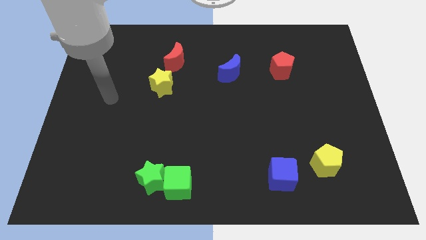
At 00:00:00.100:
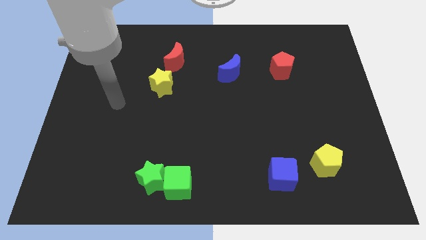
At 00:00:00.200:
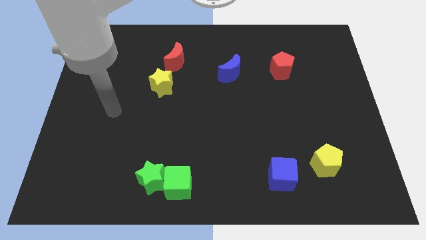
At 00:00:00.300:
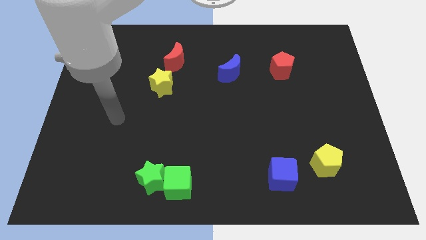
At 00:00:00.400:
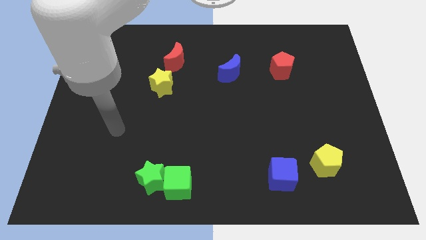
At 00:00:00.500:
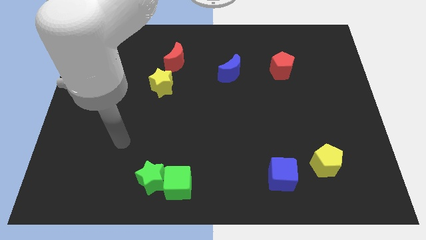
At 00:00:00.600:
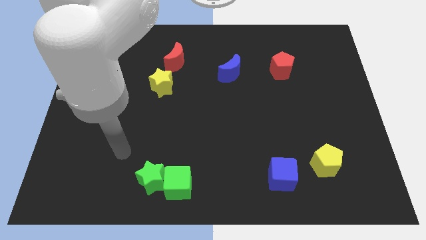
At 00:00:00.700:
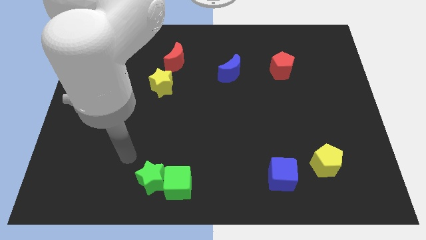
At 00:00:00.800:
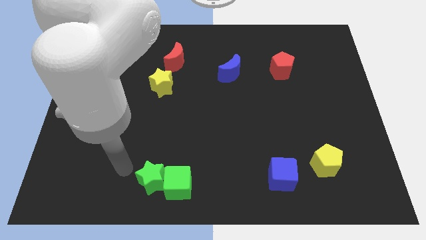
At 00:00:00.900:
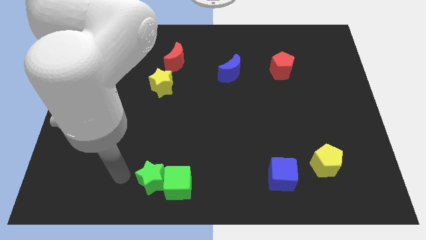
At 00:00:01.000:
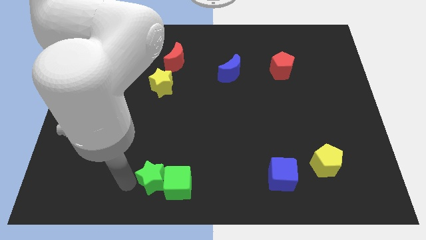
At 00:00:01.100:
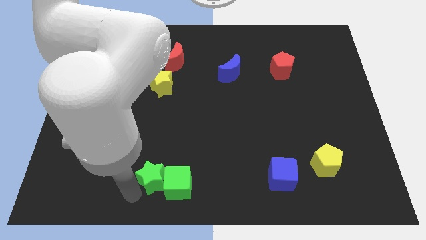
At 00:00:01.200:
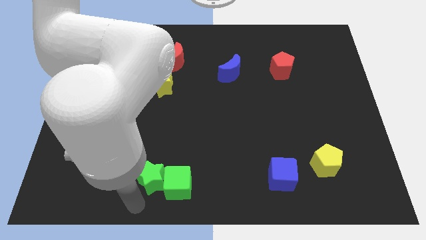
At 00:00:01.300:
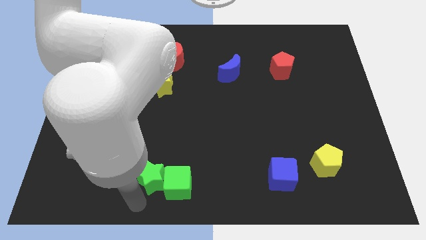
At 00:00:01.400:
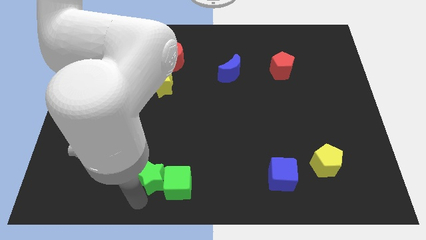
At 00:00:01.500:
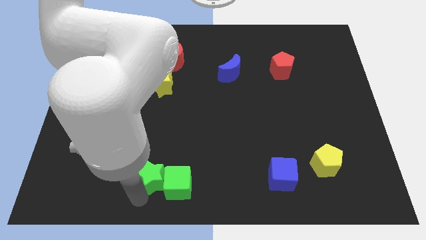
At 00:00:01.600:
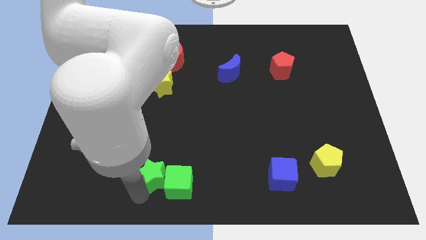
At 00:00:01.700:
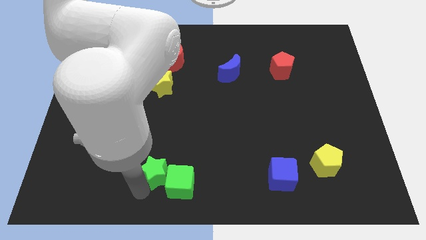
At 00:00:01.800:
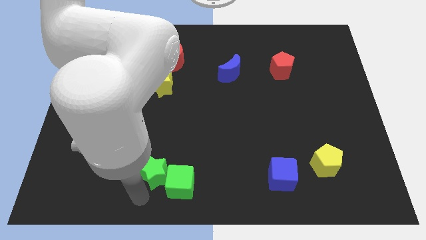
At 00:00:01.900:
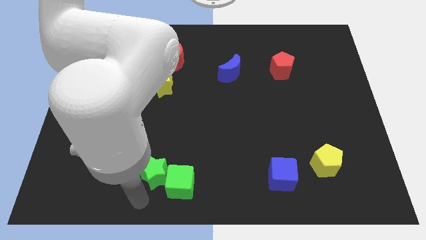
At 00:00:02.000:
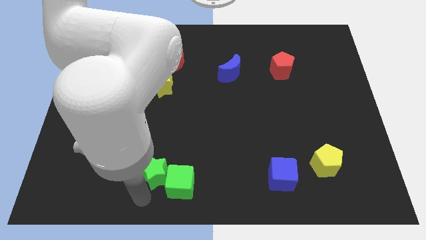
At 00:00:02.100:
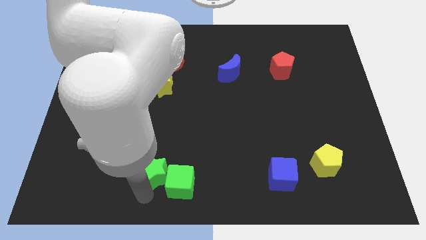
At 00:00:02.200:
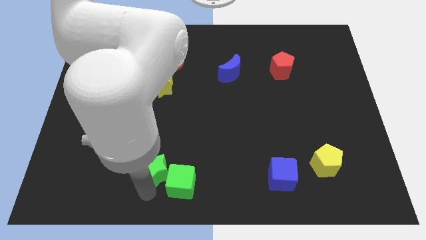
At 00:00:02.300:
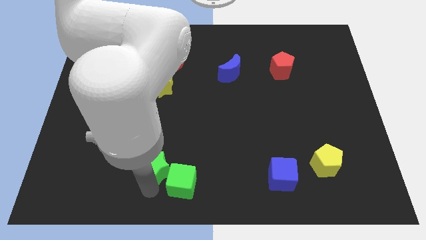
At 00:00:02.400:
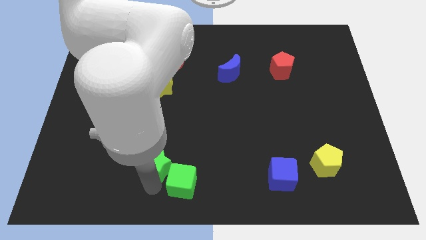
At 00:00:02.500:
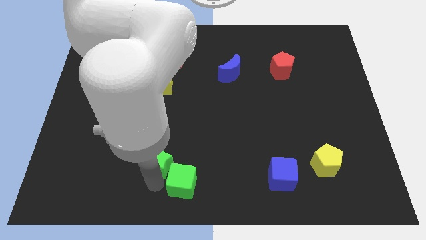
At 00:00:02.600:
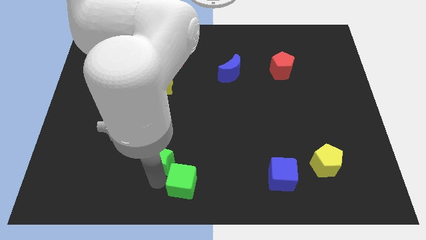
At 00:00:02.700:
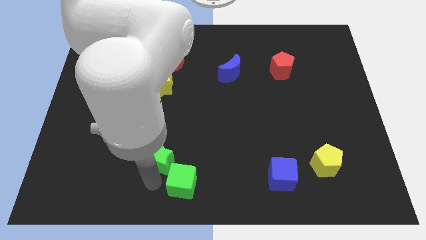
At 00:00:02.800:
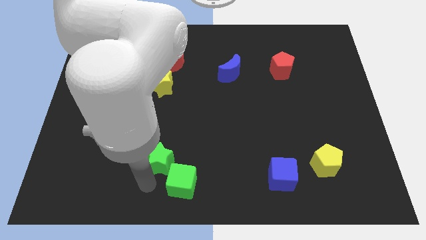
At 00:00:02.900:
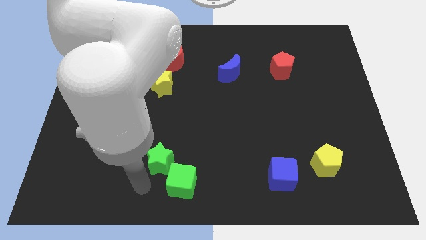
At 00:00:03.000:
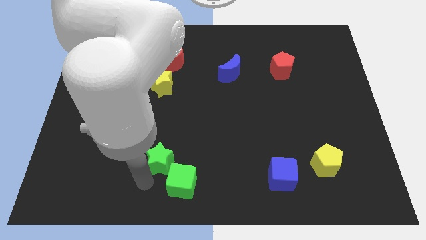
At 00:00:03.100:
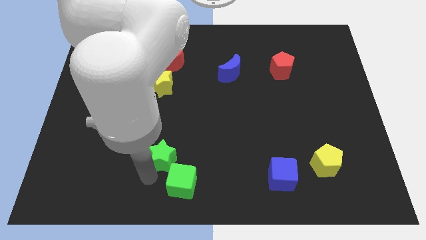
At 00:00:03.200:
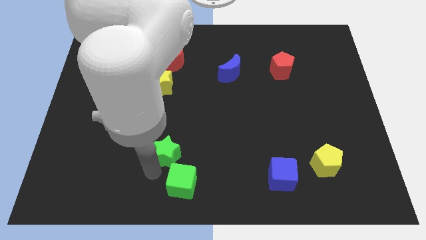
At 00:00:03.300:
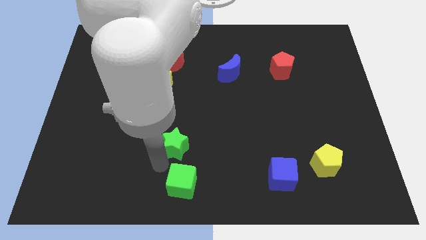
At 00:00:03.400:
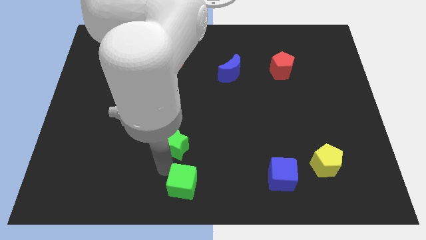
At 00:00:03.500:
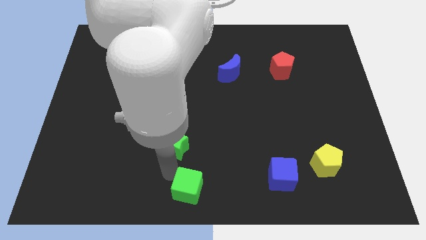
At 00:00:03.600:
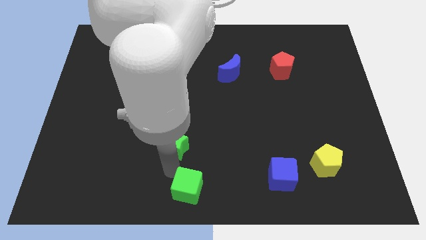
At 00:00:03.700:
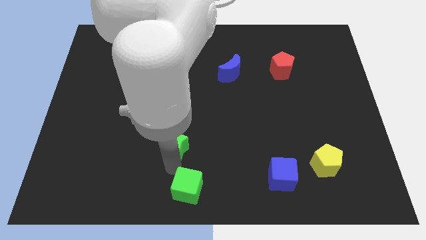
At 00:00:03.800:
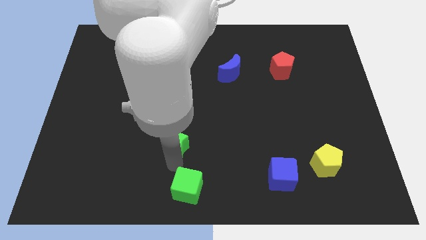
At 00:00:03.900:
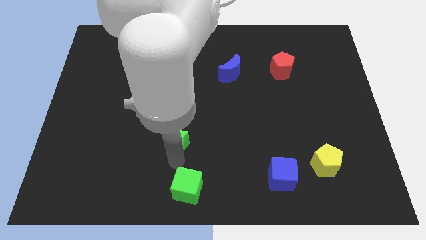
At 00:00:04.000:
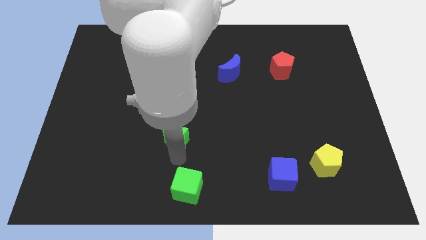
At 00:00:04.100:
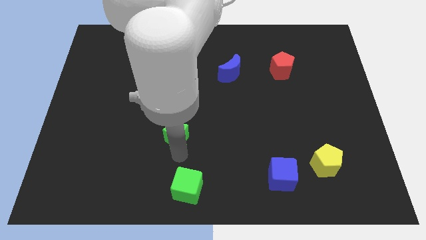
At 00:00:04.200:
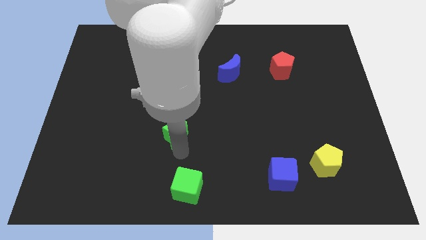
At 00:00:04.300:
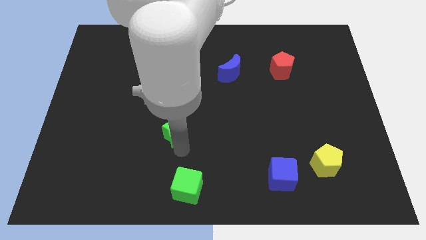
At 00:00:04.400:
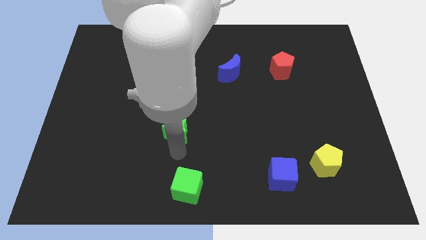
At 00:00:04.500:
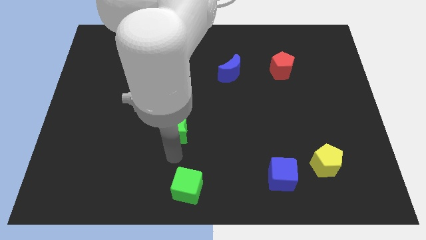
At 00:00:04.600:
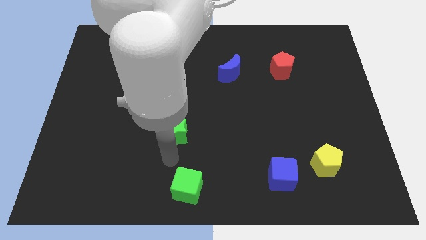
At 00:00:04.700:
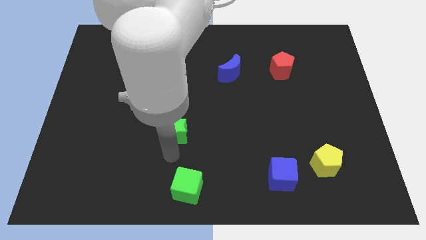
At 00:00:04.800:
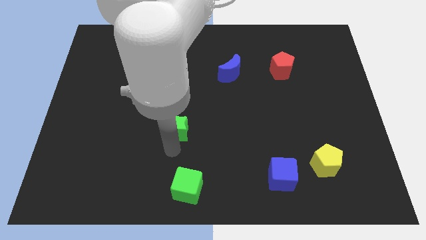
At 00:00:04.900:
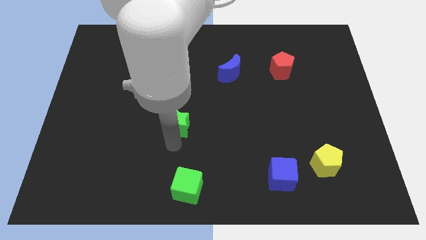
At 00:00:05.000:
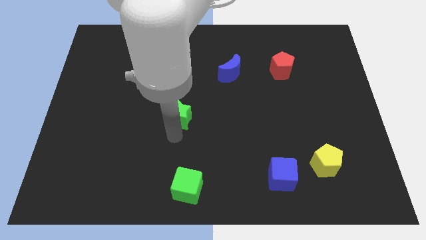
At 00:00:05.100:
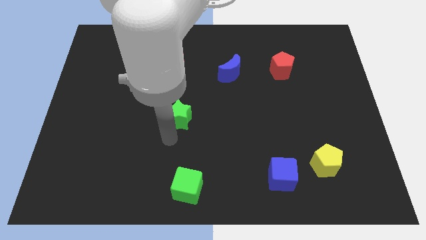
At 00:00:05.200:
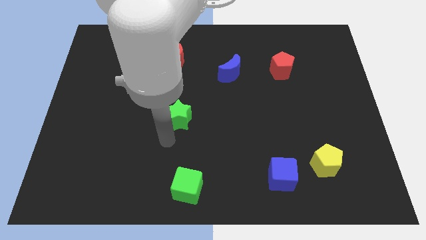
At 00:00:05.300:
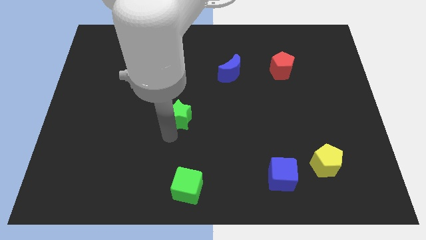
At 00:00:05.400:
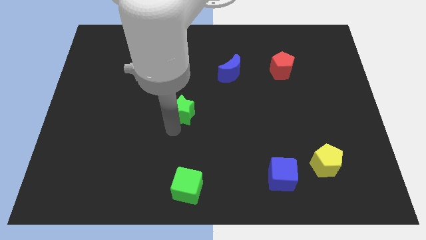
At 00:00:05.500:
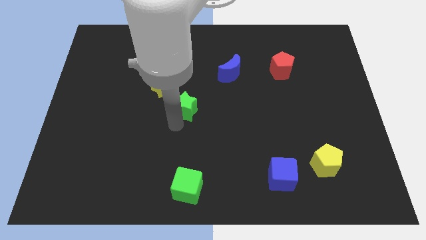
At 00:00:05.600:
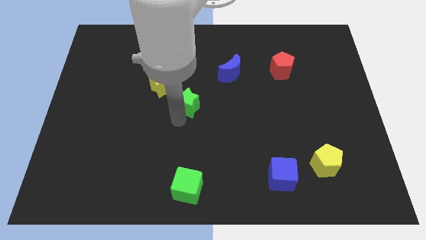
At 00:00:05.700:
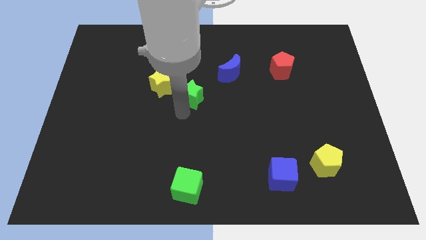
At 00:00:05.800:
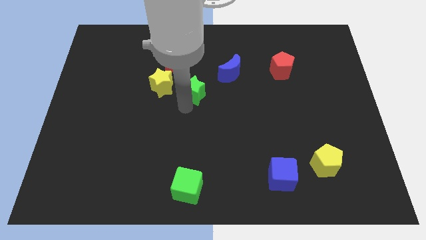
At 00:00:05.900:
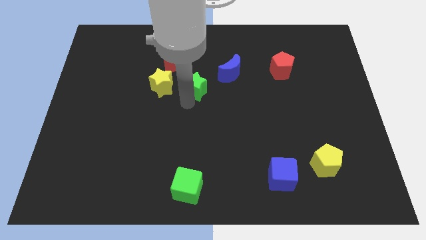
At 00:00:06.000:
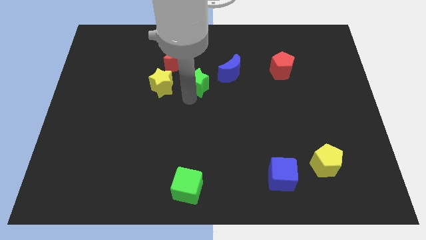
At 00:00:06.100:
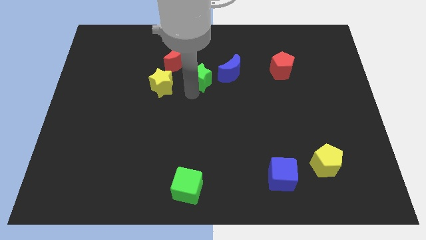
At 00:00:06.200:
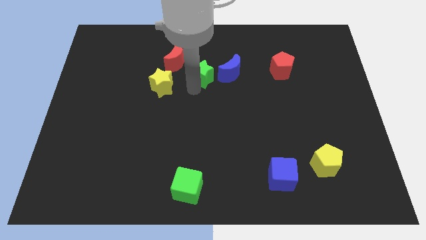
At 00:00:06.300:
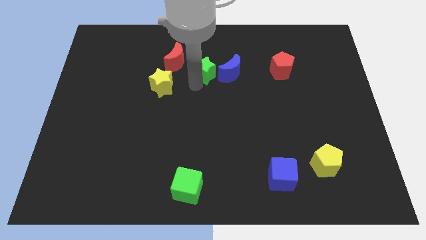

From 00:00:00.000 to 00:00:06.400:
put the green star to the top left side of the blue moon

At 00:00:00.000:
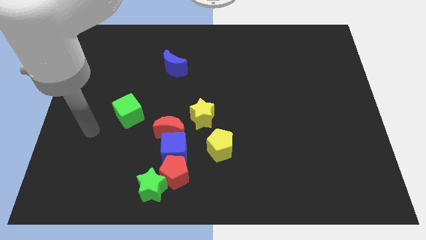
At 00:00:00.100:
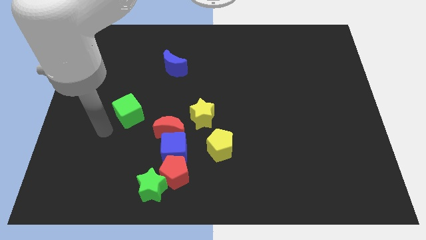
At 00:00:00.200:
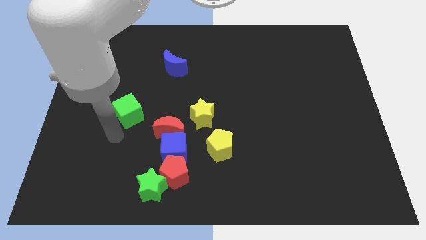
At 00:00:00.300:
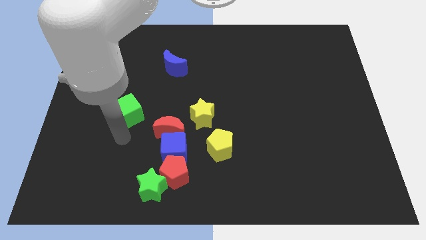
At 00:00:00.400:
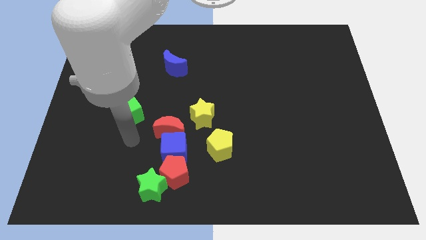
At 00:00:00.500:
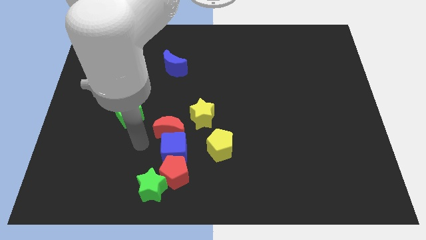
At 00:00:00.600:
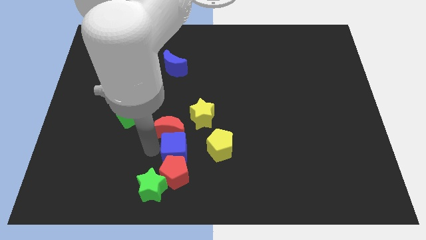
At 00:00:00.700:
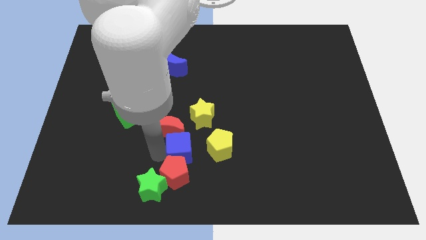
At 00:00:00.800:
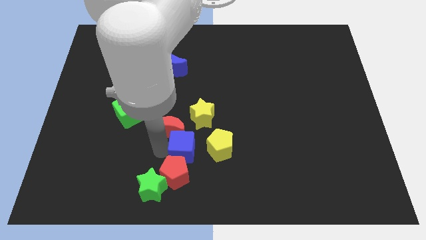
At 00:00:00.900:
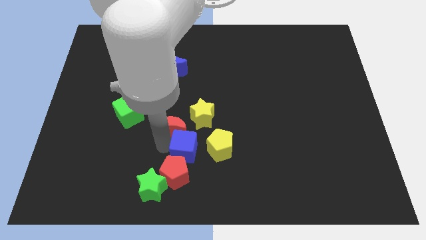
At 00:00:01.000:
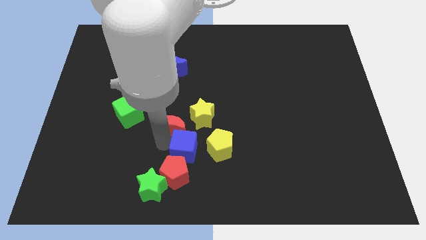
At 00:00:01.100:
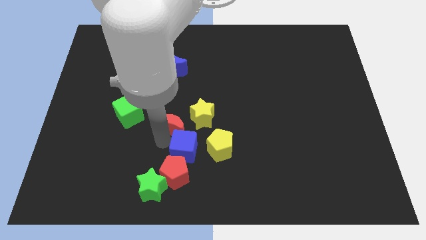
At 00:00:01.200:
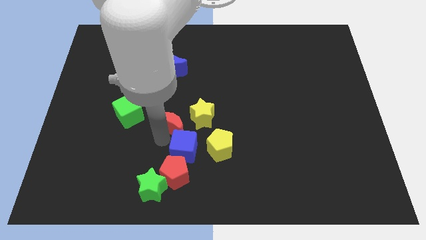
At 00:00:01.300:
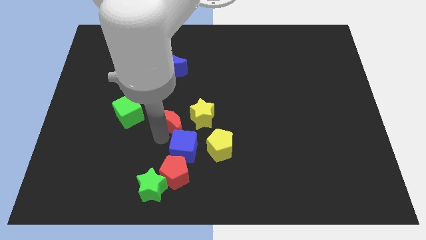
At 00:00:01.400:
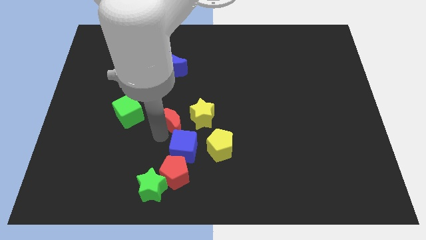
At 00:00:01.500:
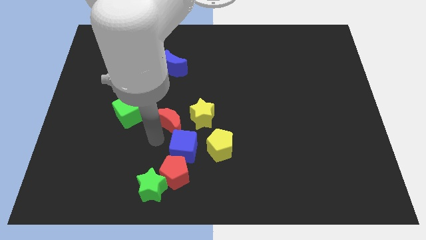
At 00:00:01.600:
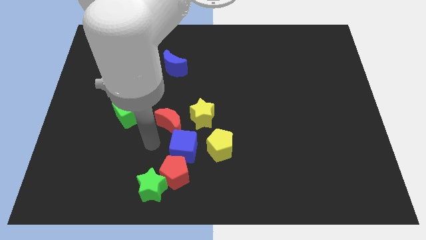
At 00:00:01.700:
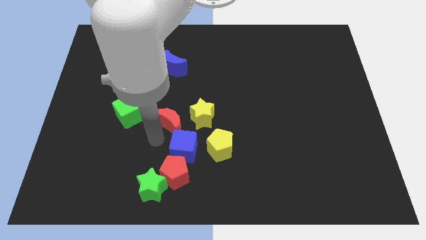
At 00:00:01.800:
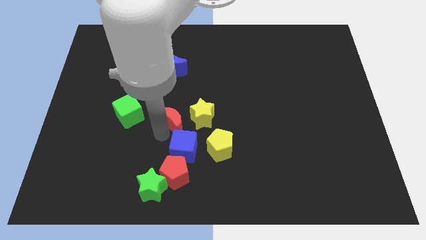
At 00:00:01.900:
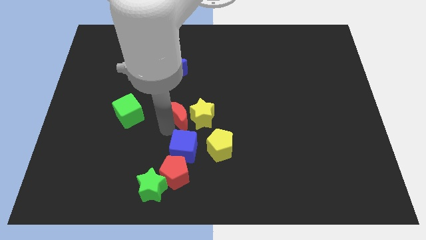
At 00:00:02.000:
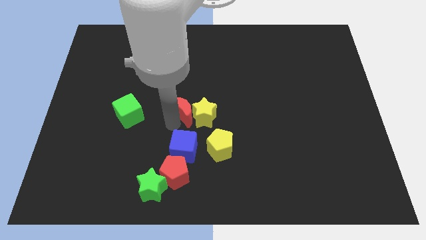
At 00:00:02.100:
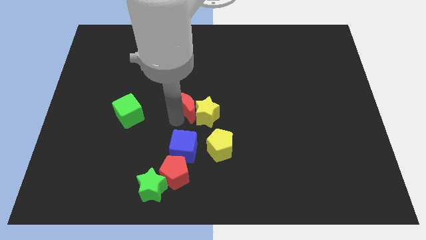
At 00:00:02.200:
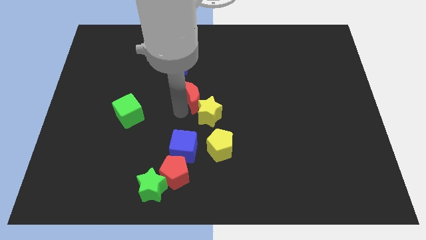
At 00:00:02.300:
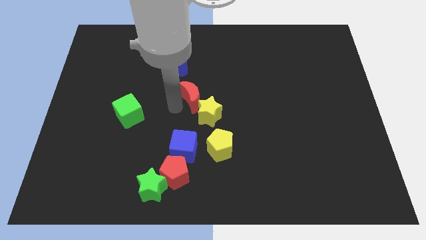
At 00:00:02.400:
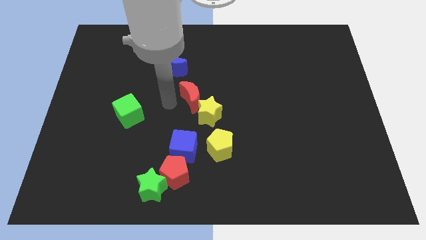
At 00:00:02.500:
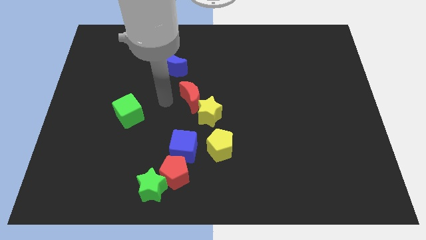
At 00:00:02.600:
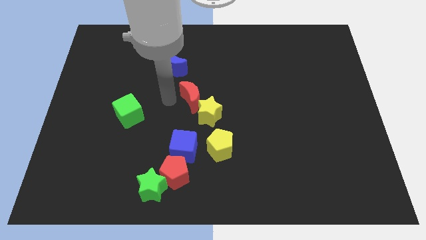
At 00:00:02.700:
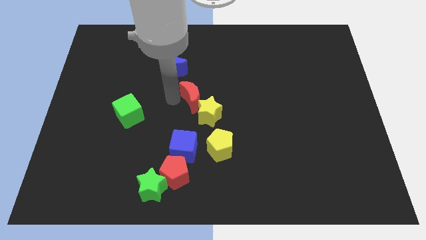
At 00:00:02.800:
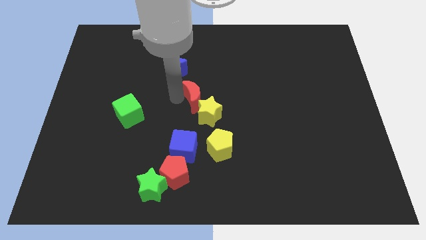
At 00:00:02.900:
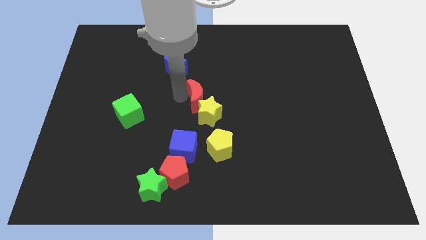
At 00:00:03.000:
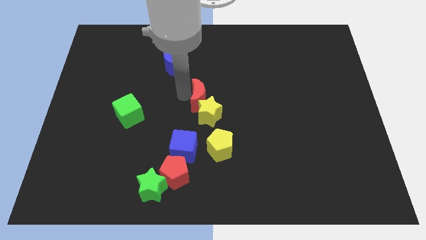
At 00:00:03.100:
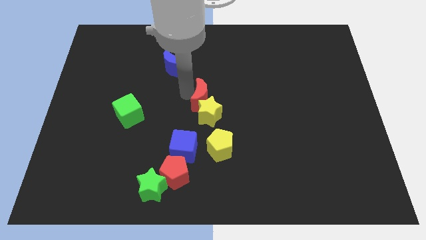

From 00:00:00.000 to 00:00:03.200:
slide the red moon to the top right of the yellow star
